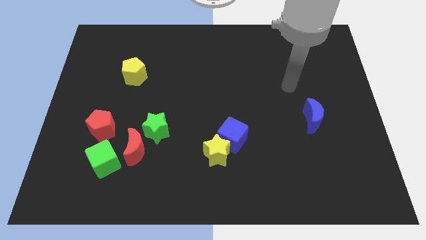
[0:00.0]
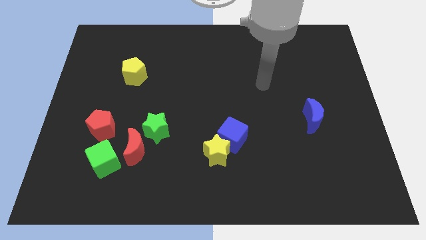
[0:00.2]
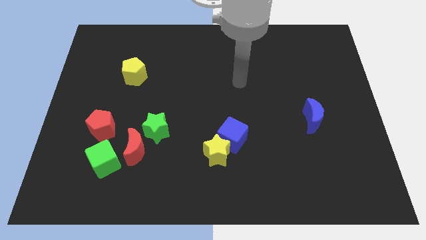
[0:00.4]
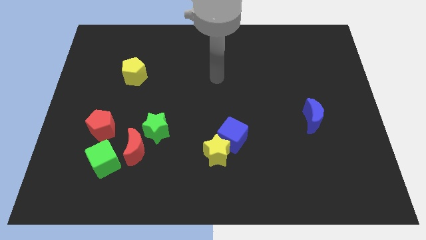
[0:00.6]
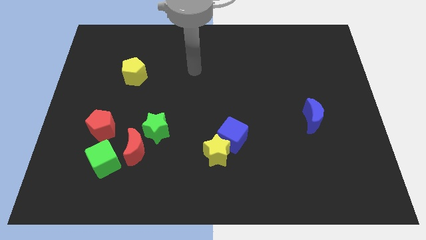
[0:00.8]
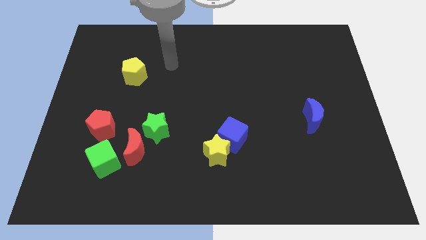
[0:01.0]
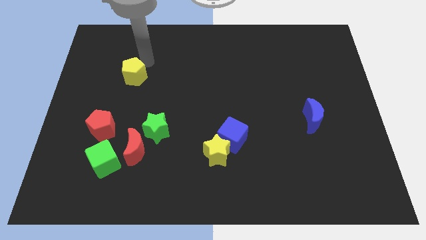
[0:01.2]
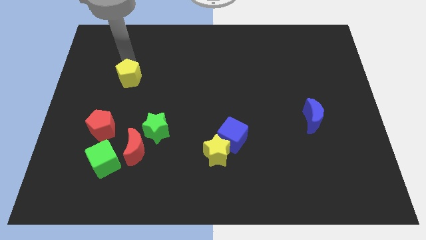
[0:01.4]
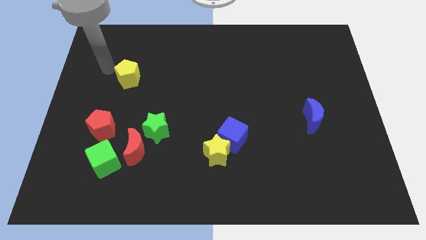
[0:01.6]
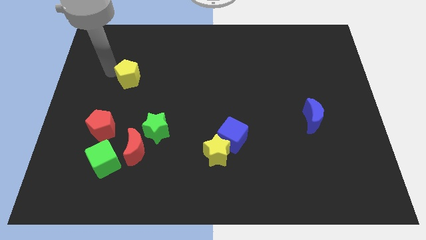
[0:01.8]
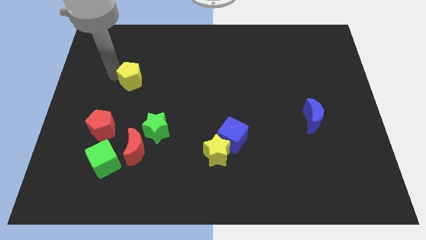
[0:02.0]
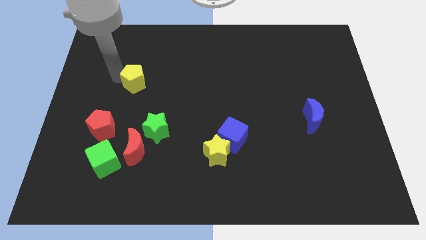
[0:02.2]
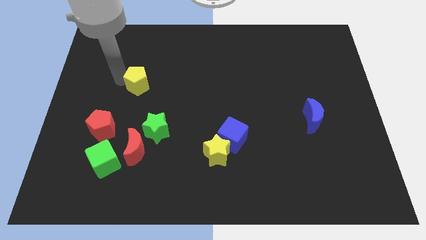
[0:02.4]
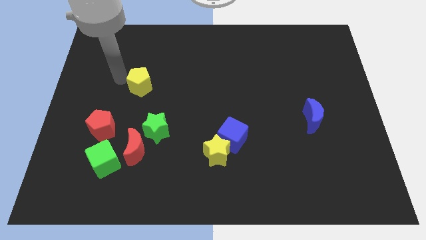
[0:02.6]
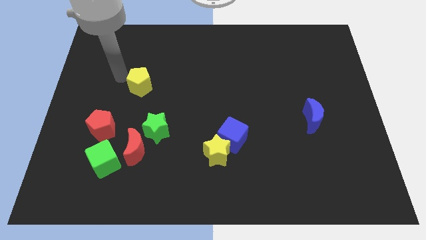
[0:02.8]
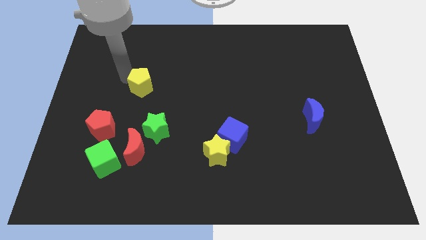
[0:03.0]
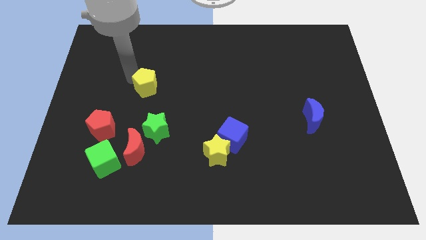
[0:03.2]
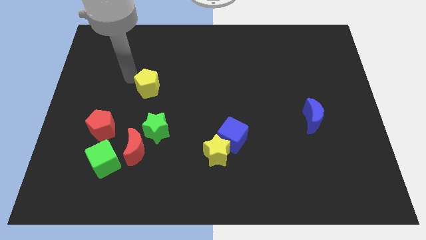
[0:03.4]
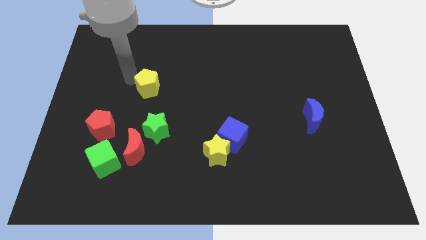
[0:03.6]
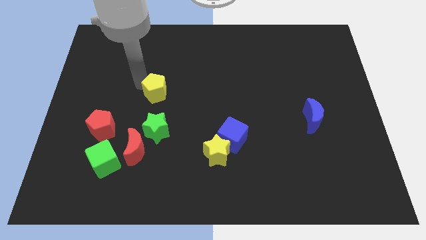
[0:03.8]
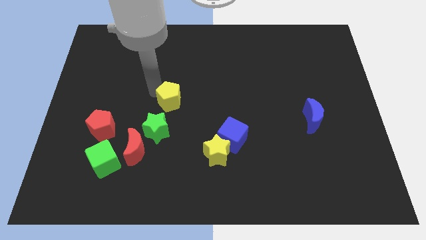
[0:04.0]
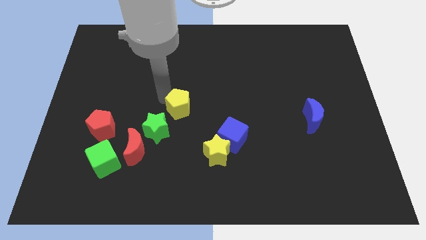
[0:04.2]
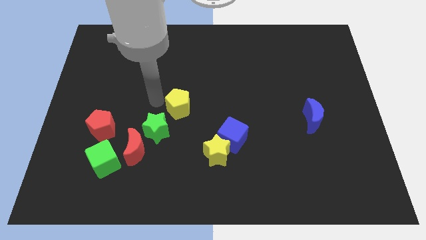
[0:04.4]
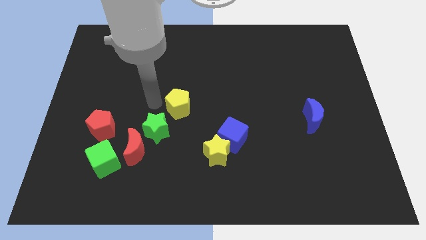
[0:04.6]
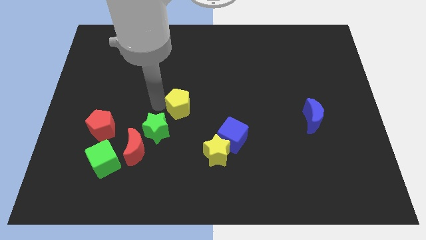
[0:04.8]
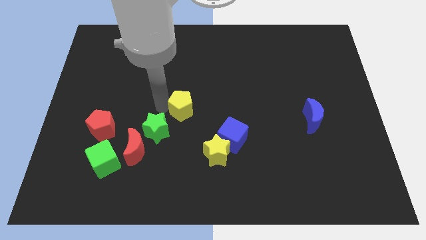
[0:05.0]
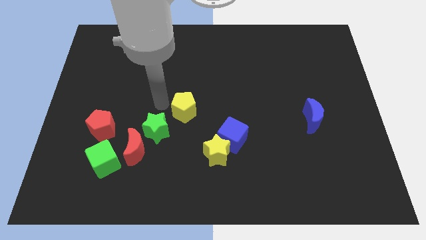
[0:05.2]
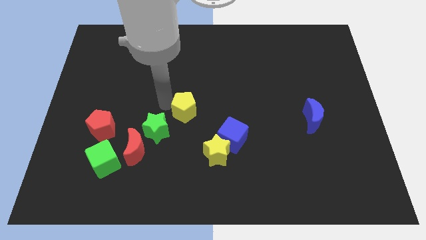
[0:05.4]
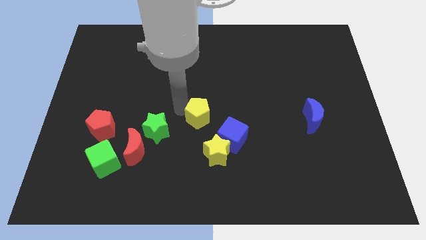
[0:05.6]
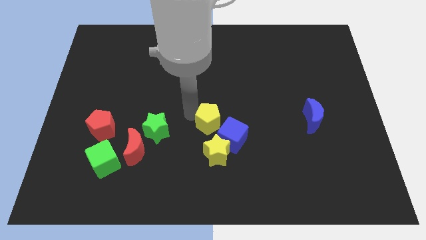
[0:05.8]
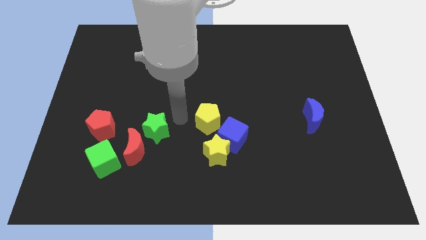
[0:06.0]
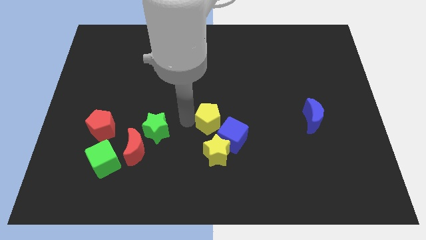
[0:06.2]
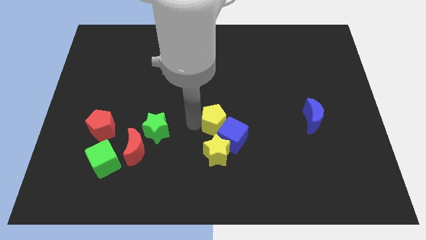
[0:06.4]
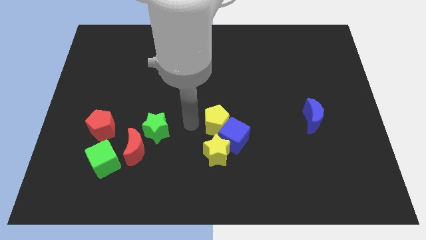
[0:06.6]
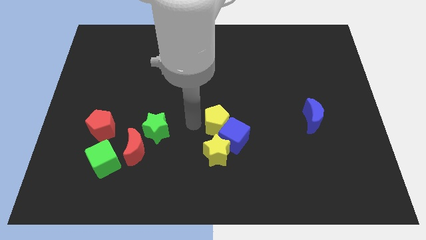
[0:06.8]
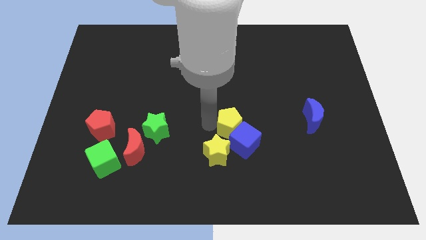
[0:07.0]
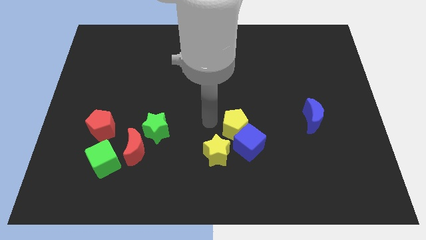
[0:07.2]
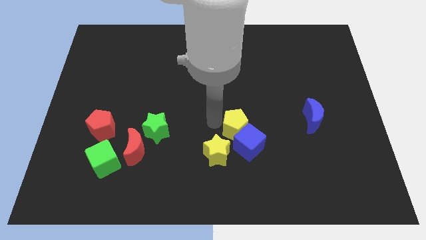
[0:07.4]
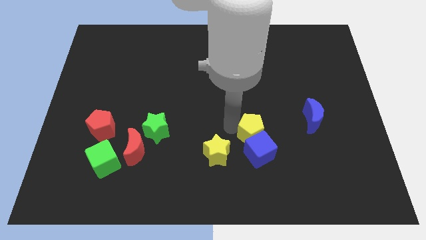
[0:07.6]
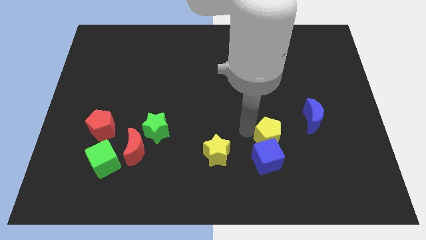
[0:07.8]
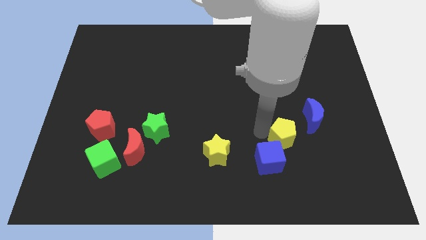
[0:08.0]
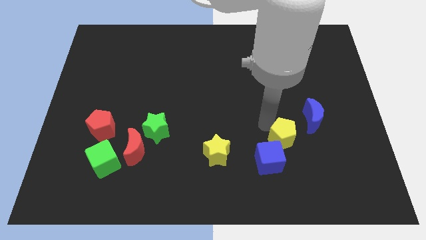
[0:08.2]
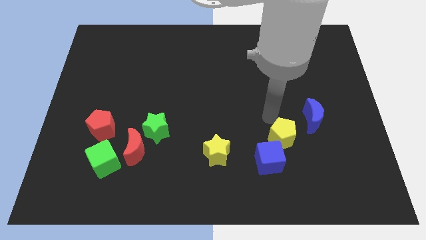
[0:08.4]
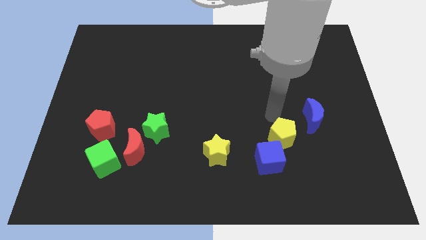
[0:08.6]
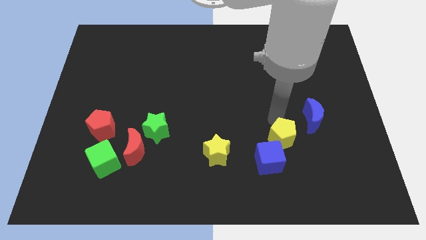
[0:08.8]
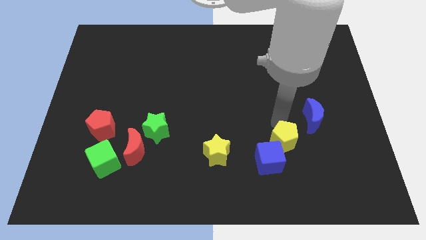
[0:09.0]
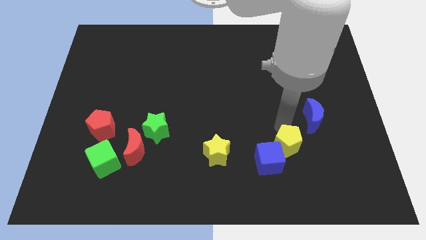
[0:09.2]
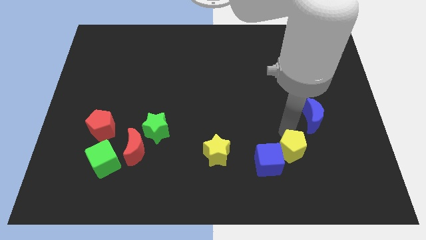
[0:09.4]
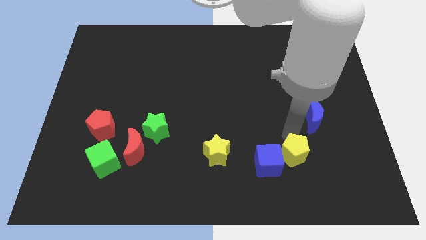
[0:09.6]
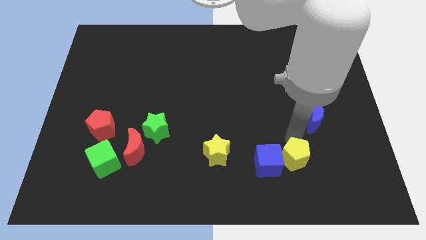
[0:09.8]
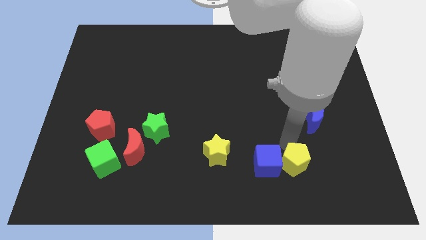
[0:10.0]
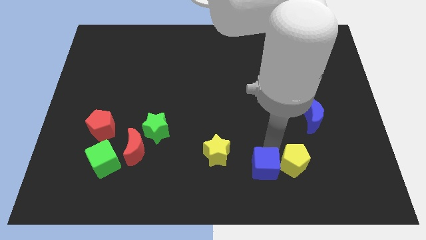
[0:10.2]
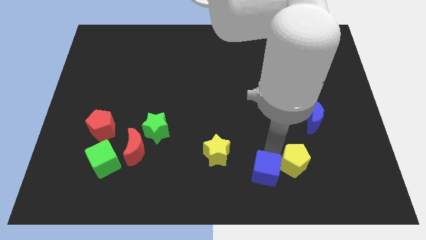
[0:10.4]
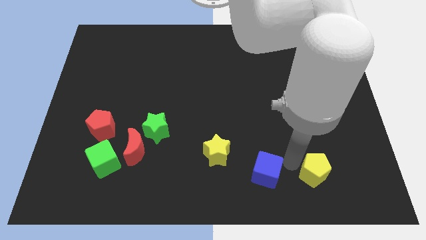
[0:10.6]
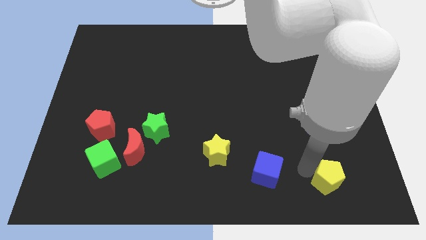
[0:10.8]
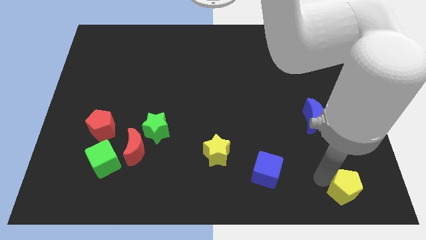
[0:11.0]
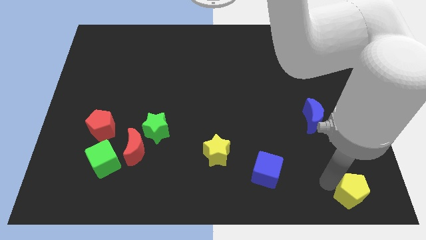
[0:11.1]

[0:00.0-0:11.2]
slide the yellow pentagon to the bottom right of the board
